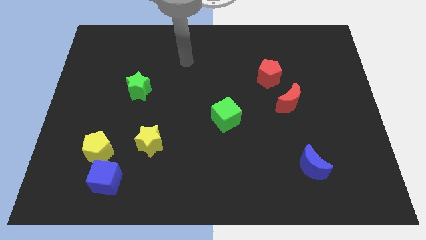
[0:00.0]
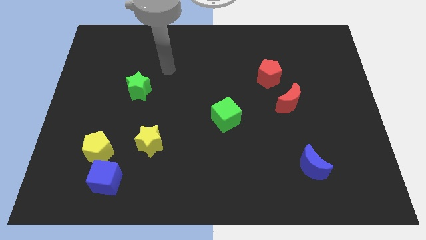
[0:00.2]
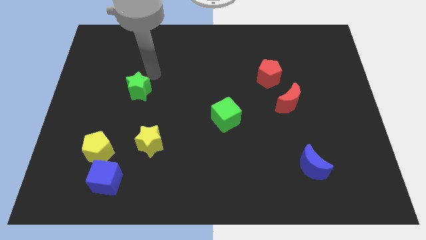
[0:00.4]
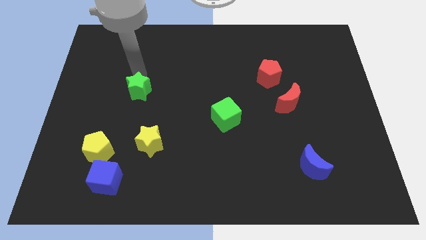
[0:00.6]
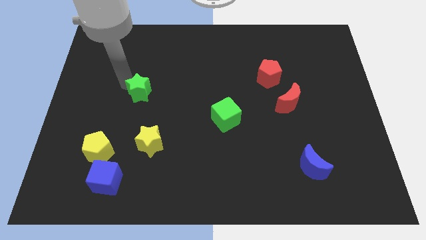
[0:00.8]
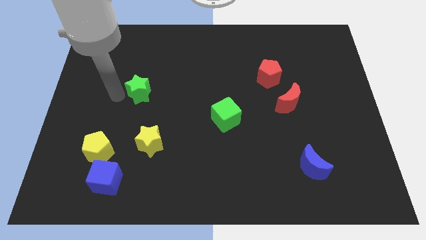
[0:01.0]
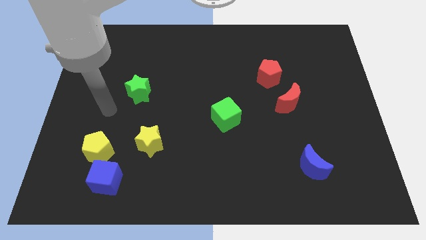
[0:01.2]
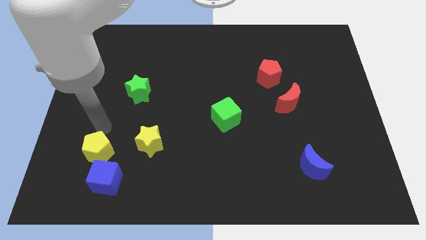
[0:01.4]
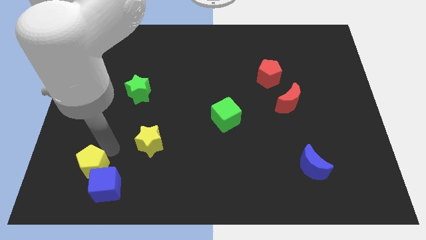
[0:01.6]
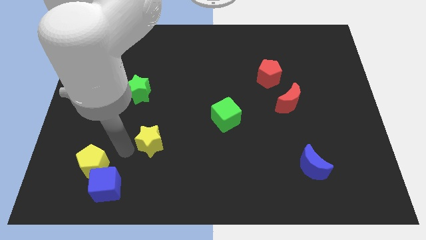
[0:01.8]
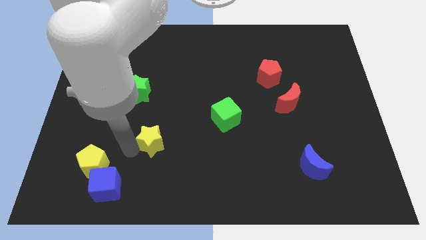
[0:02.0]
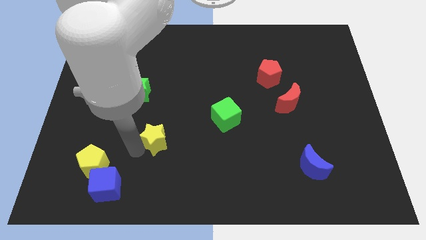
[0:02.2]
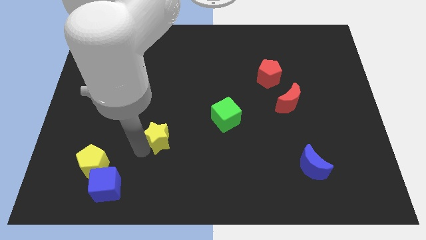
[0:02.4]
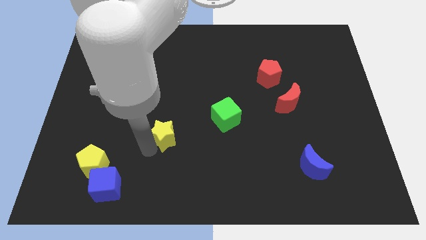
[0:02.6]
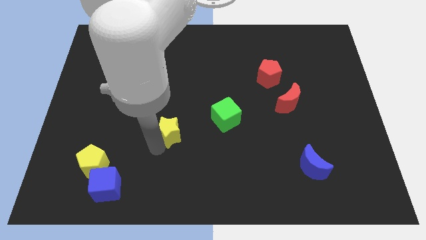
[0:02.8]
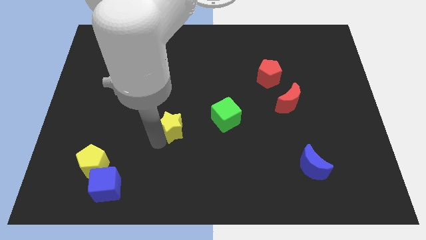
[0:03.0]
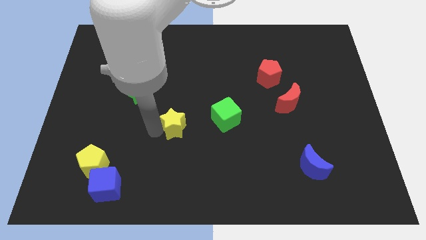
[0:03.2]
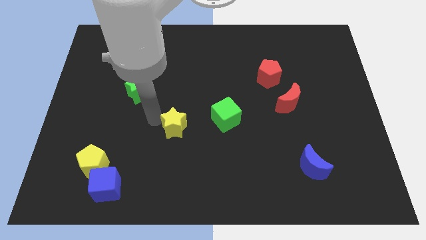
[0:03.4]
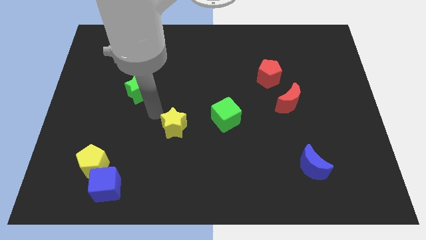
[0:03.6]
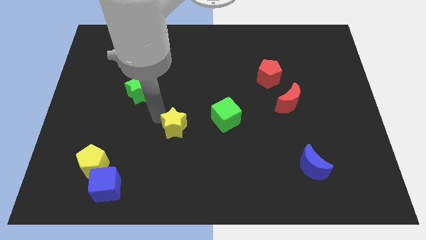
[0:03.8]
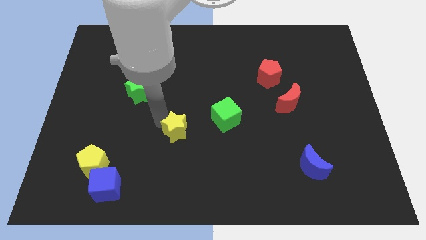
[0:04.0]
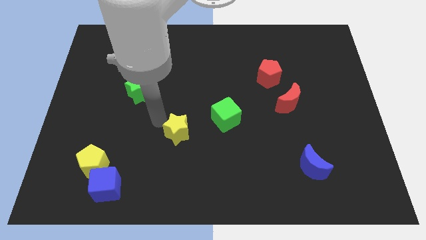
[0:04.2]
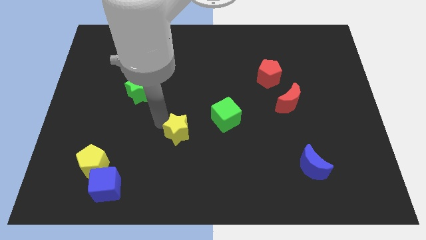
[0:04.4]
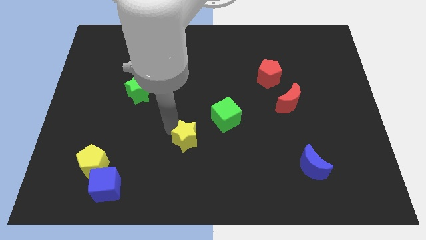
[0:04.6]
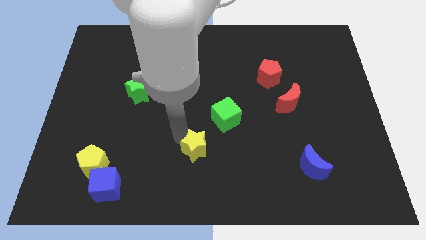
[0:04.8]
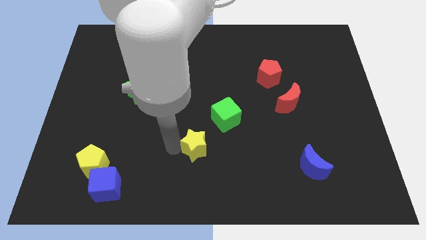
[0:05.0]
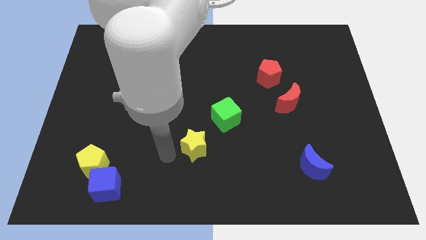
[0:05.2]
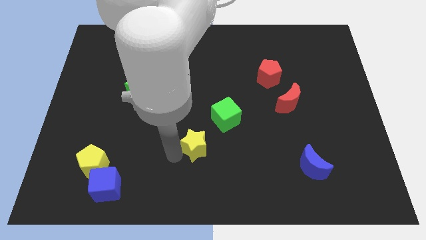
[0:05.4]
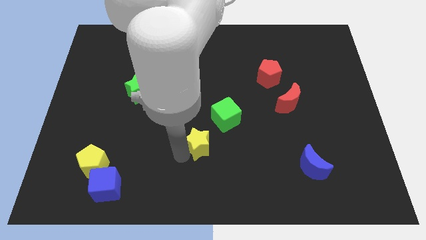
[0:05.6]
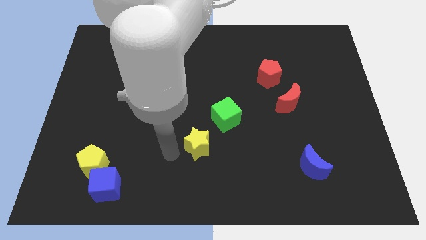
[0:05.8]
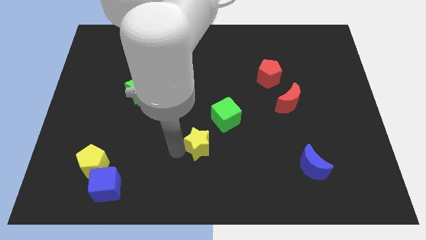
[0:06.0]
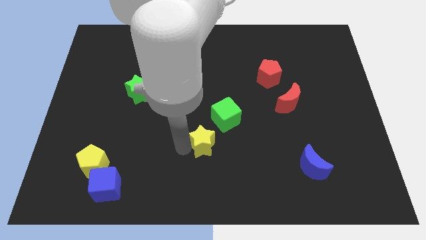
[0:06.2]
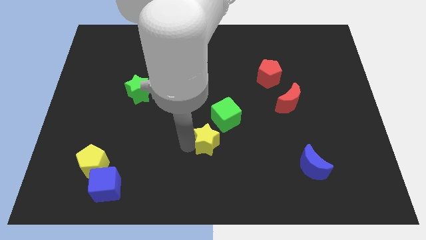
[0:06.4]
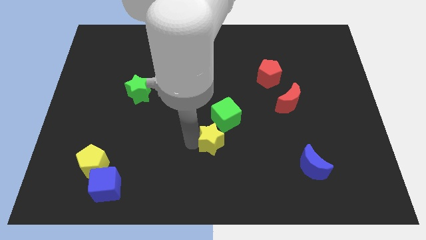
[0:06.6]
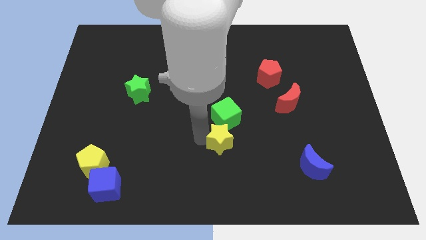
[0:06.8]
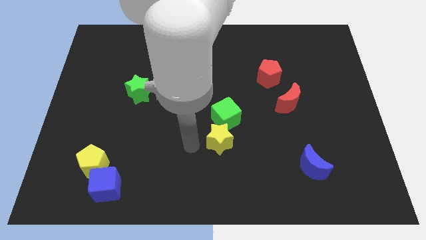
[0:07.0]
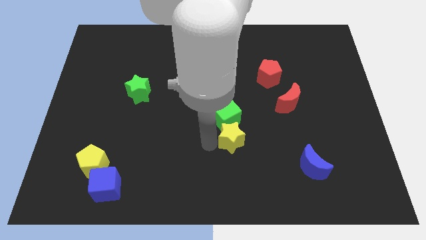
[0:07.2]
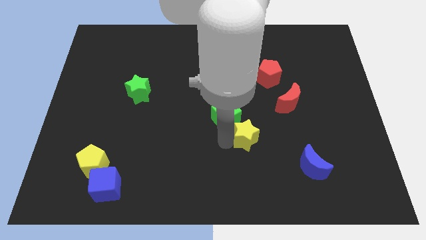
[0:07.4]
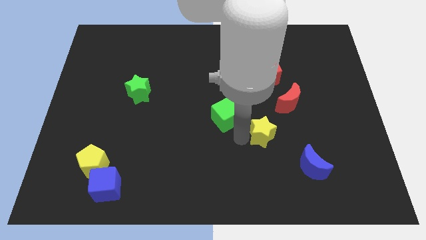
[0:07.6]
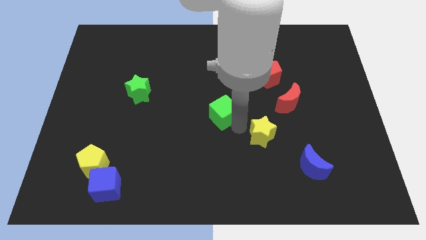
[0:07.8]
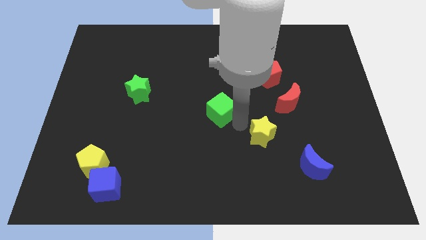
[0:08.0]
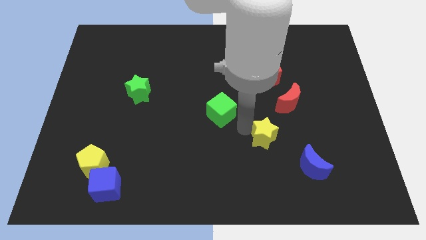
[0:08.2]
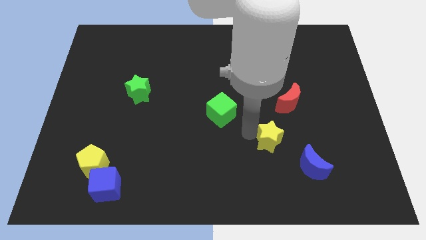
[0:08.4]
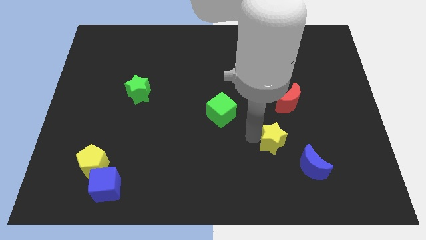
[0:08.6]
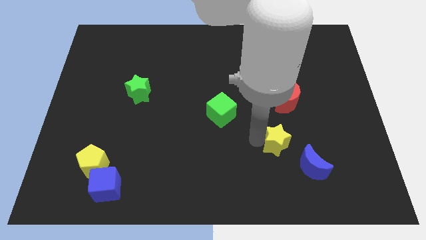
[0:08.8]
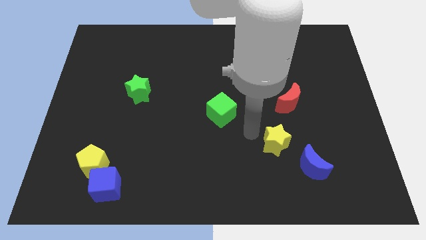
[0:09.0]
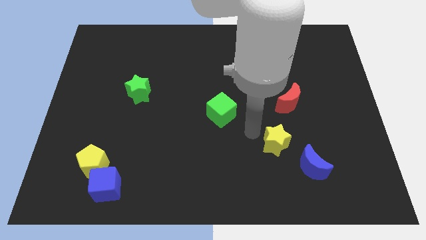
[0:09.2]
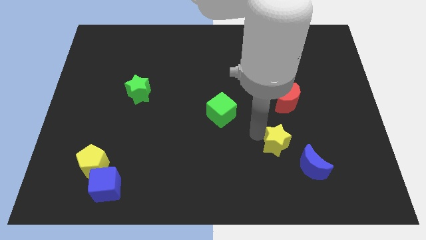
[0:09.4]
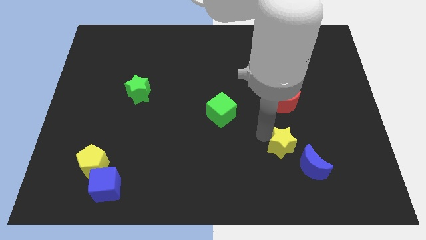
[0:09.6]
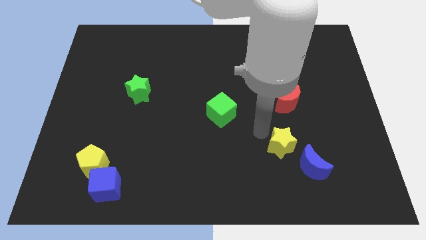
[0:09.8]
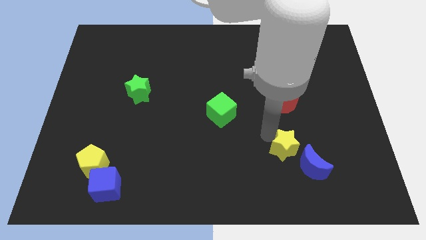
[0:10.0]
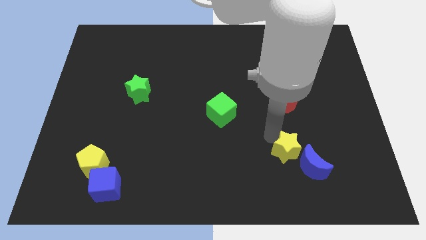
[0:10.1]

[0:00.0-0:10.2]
put the yellow star next to the blue moon

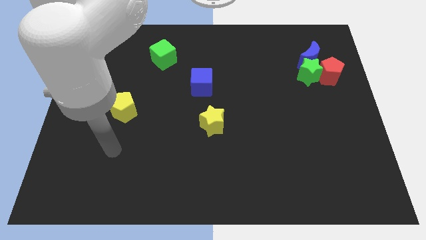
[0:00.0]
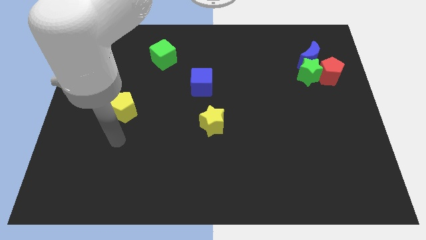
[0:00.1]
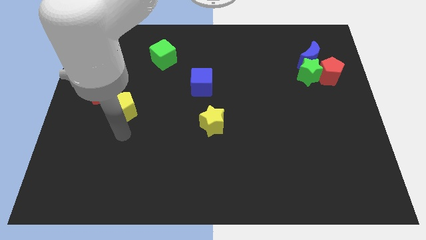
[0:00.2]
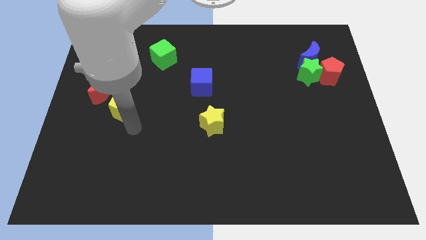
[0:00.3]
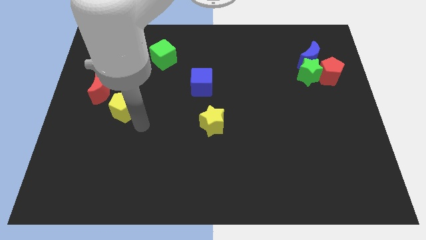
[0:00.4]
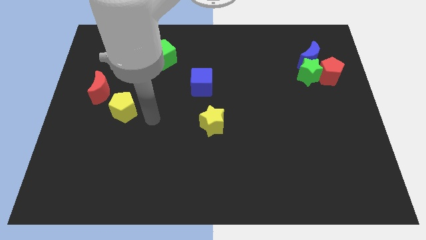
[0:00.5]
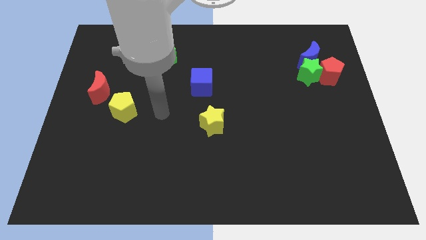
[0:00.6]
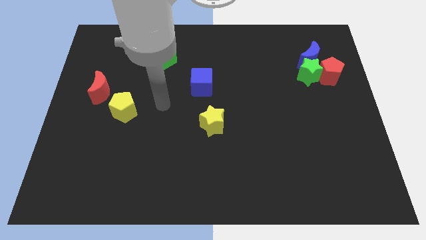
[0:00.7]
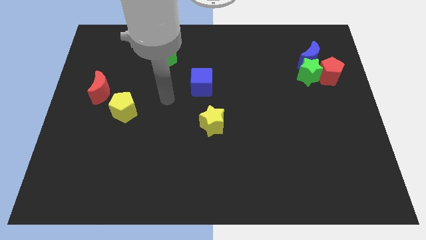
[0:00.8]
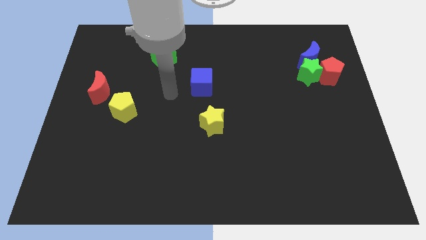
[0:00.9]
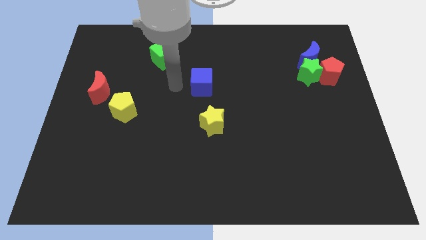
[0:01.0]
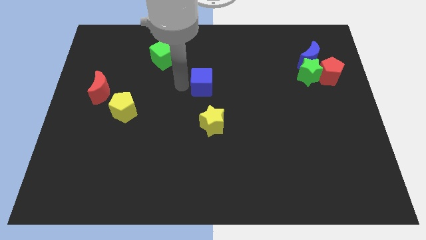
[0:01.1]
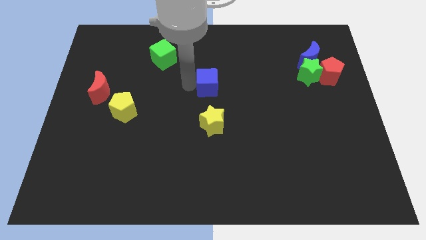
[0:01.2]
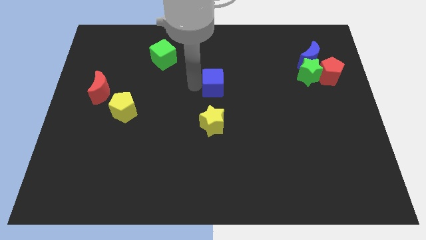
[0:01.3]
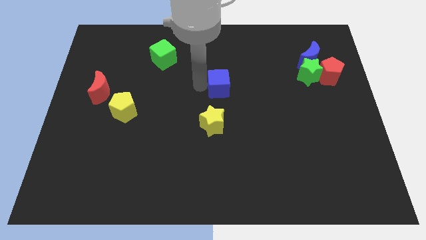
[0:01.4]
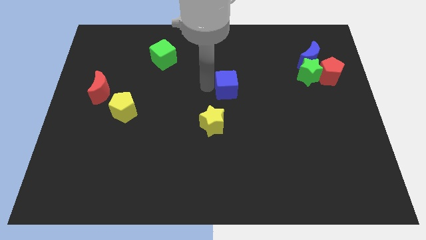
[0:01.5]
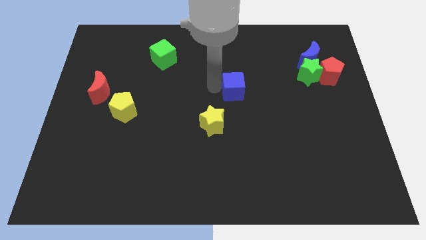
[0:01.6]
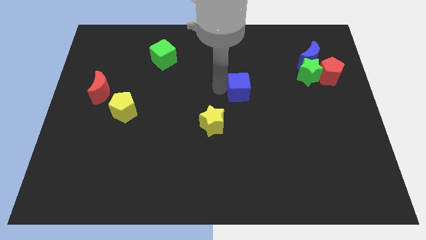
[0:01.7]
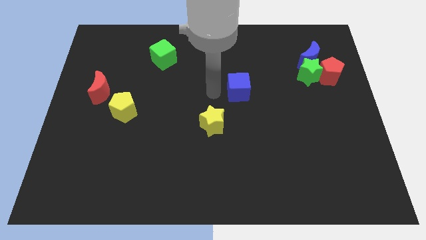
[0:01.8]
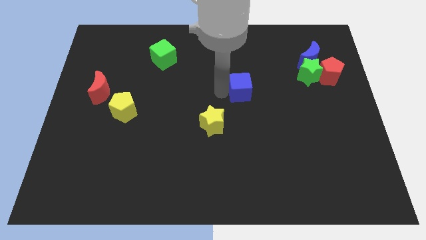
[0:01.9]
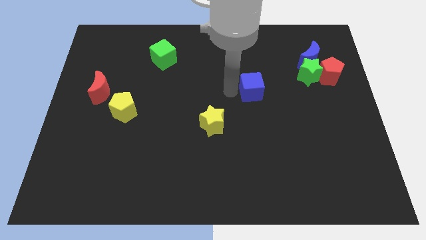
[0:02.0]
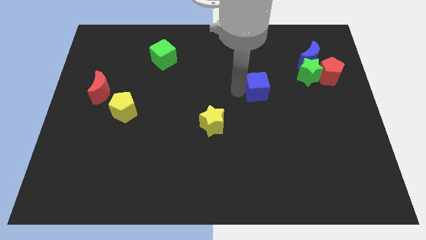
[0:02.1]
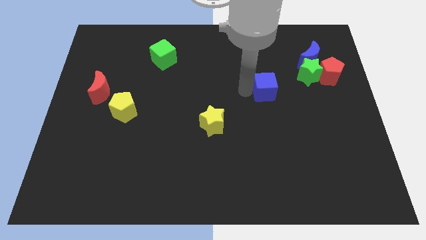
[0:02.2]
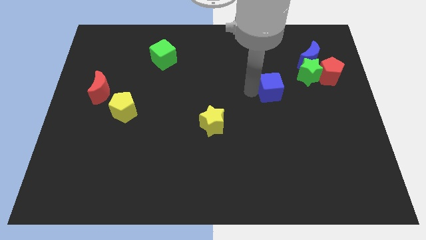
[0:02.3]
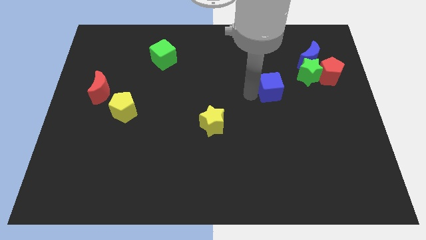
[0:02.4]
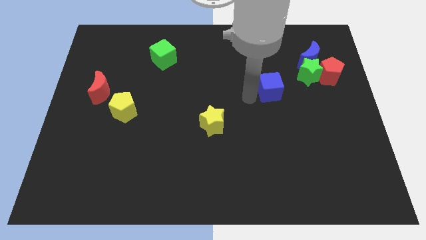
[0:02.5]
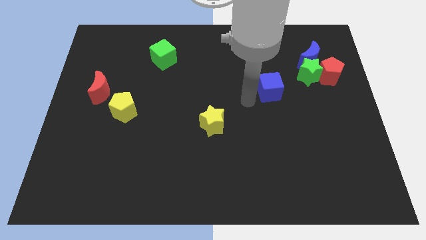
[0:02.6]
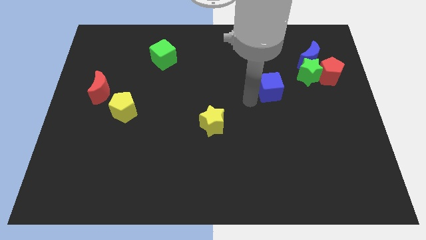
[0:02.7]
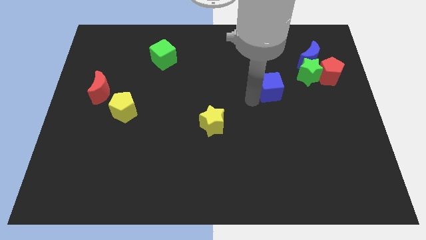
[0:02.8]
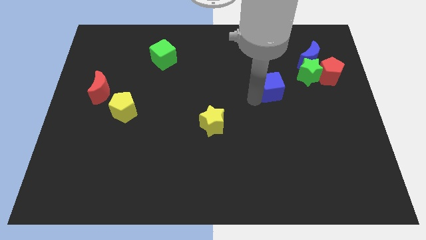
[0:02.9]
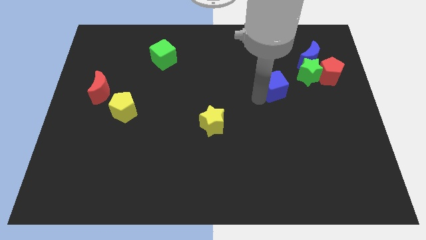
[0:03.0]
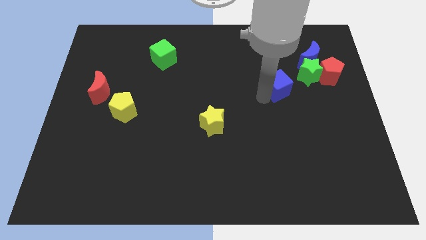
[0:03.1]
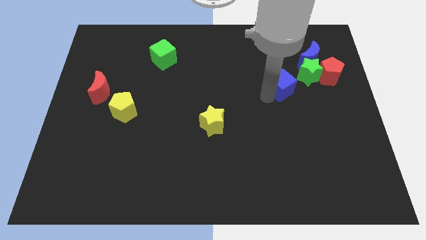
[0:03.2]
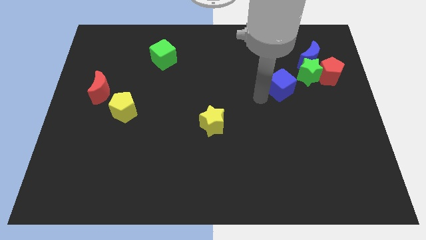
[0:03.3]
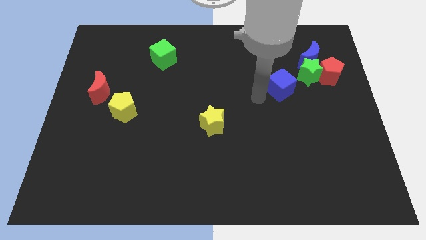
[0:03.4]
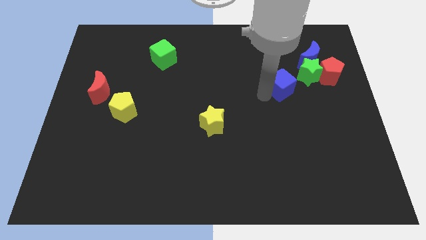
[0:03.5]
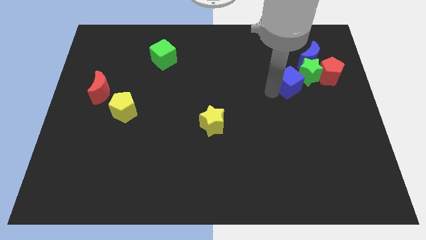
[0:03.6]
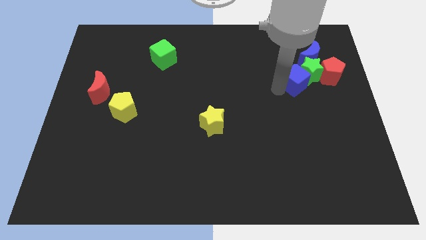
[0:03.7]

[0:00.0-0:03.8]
put the blue cube next to the green star
